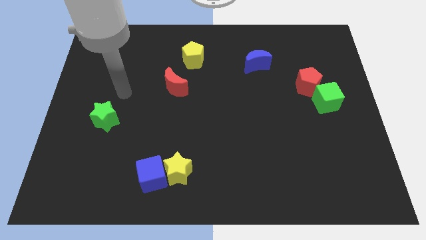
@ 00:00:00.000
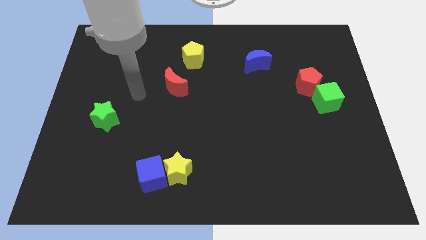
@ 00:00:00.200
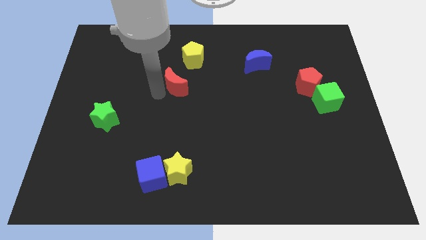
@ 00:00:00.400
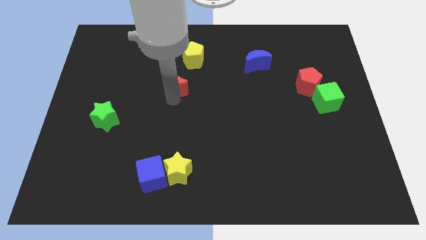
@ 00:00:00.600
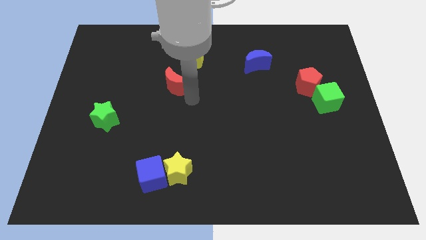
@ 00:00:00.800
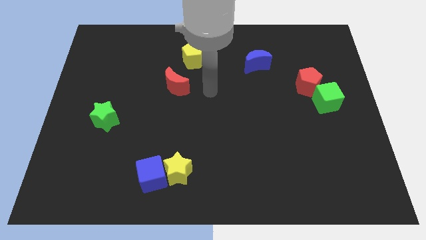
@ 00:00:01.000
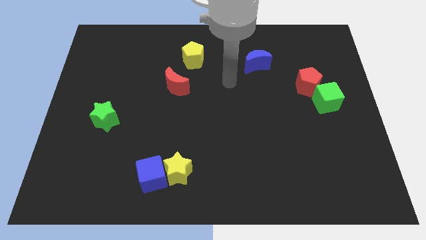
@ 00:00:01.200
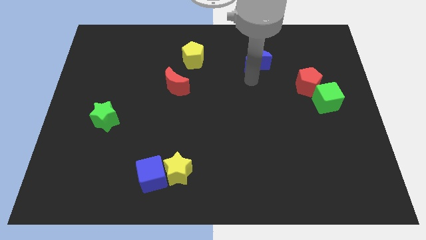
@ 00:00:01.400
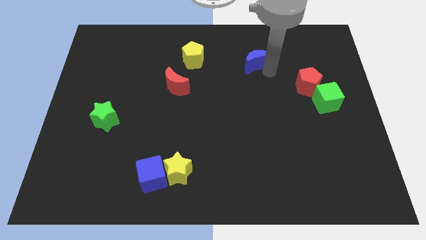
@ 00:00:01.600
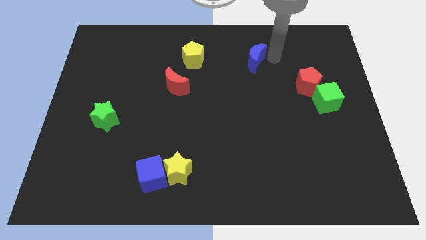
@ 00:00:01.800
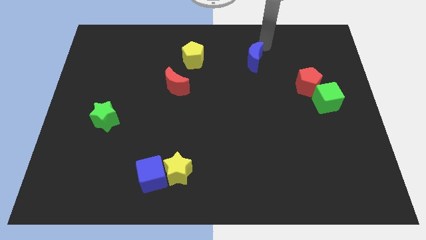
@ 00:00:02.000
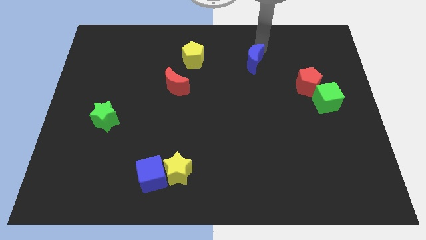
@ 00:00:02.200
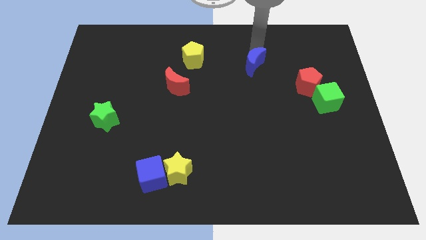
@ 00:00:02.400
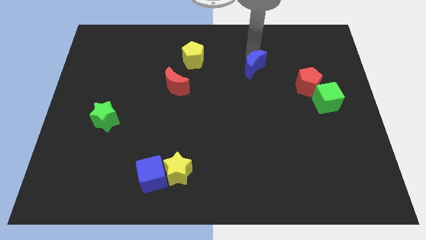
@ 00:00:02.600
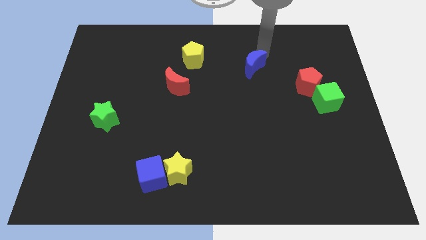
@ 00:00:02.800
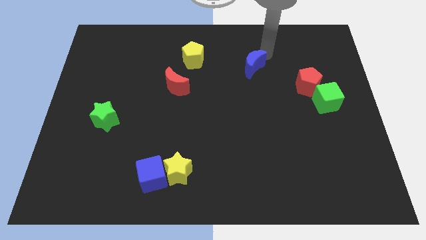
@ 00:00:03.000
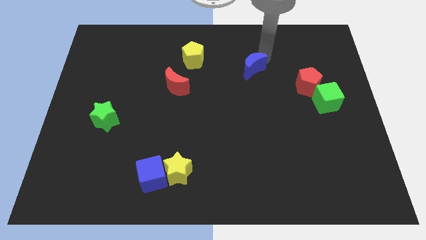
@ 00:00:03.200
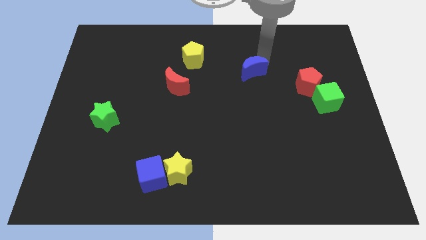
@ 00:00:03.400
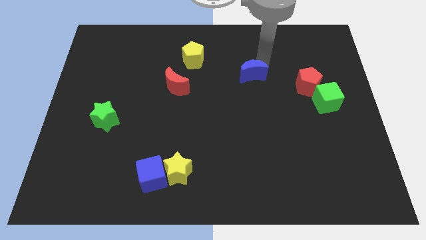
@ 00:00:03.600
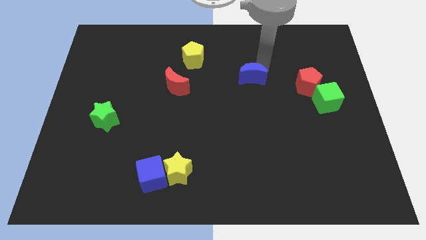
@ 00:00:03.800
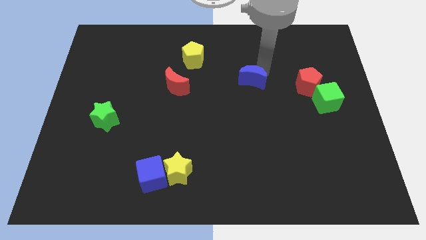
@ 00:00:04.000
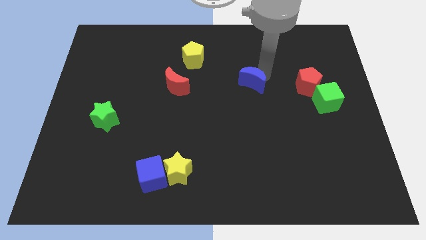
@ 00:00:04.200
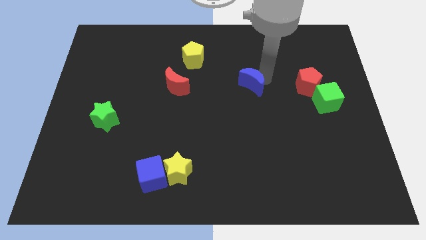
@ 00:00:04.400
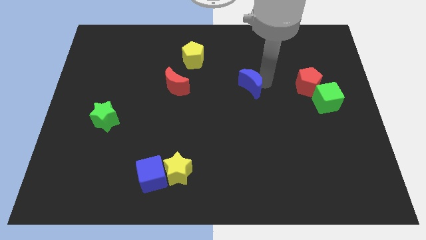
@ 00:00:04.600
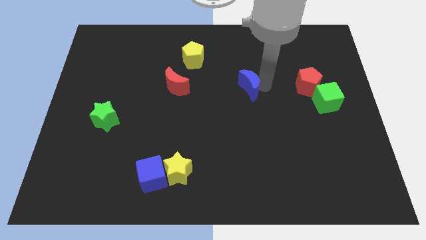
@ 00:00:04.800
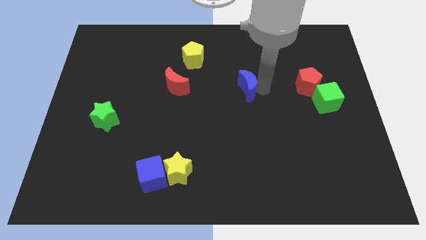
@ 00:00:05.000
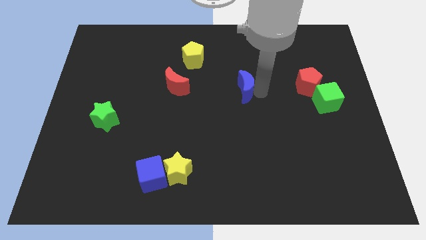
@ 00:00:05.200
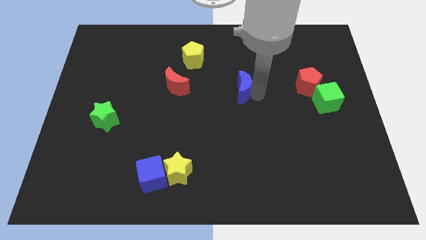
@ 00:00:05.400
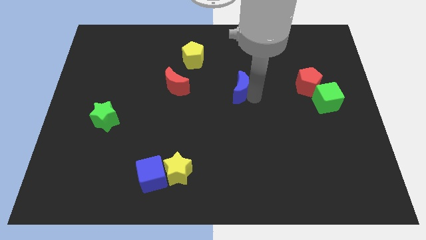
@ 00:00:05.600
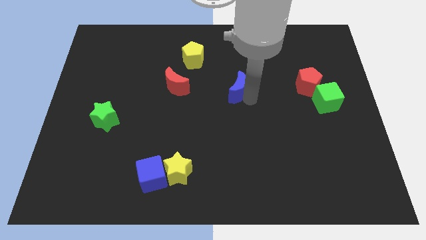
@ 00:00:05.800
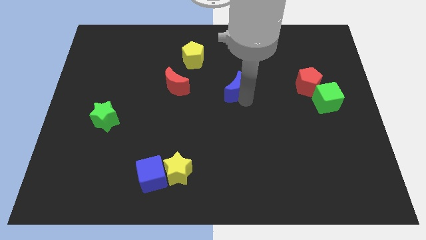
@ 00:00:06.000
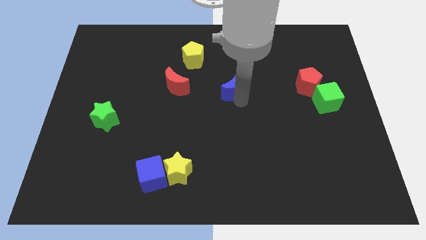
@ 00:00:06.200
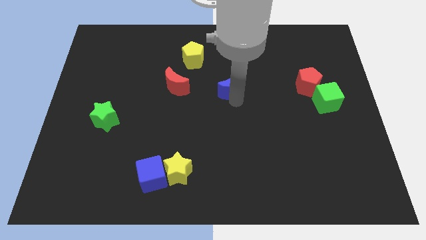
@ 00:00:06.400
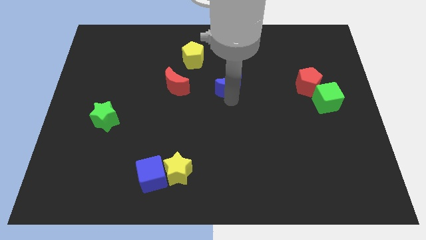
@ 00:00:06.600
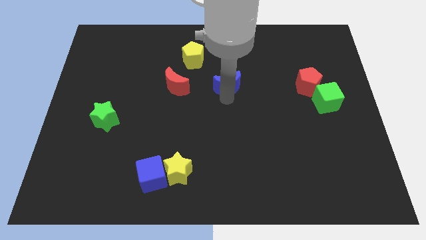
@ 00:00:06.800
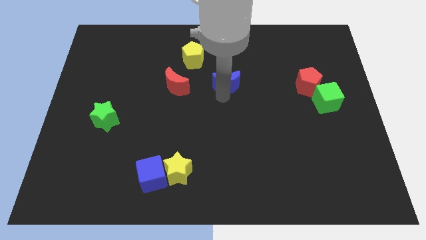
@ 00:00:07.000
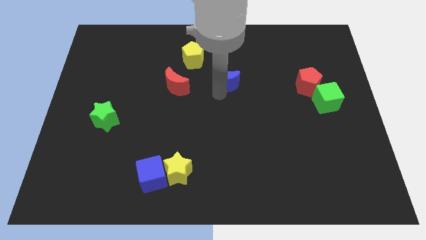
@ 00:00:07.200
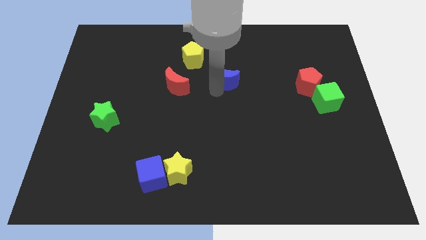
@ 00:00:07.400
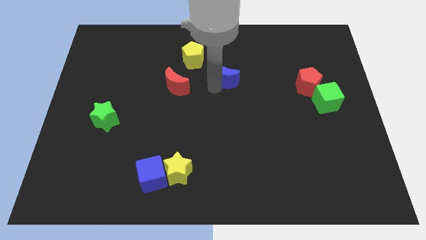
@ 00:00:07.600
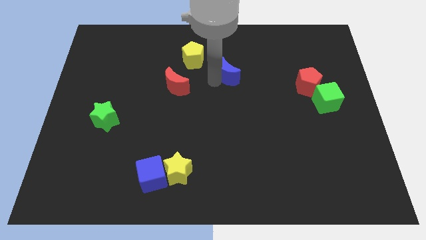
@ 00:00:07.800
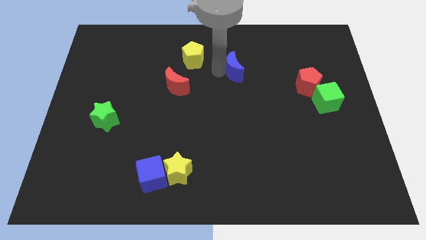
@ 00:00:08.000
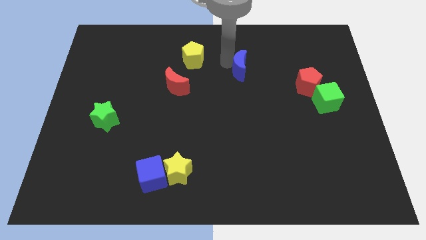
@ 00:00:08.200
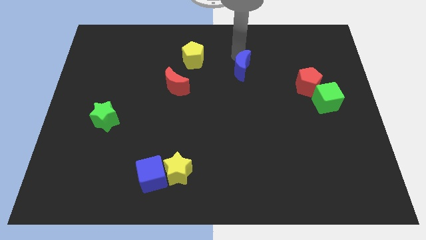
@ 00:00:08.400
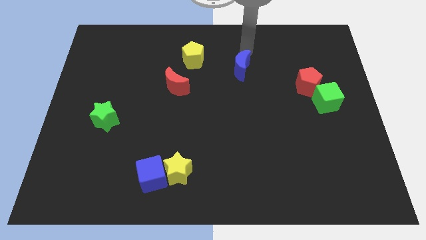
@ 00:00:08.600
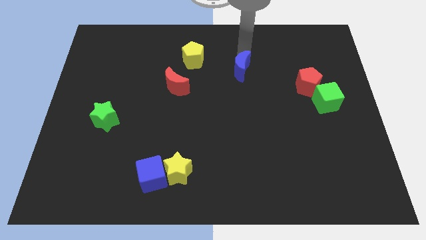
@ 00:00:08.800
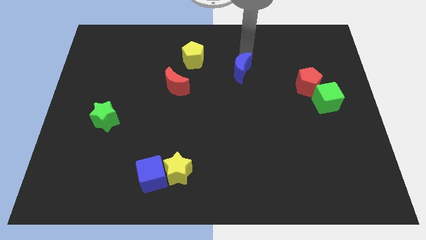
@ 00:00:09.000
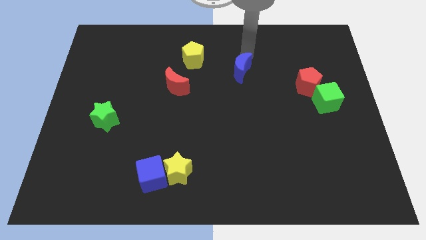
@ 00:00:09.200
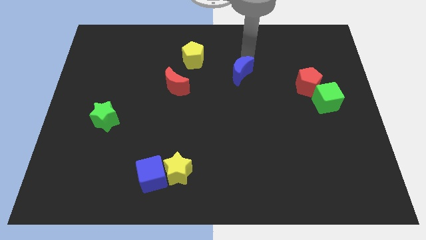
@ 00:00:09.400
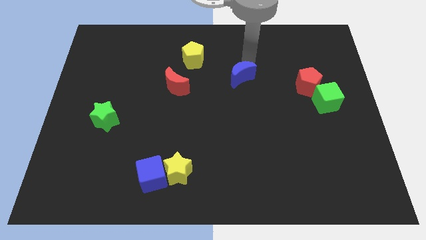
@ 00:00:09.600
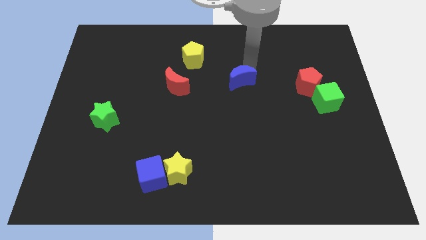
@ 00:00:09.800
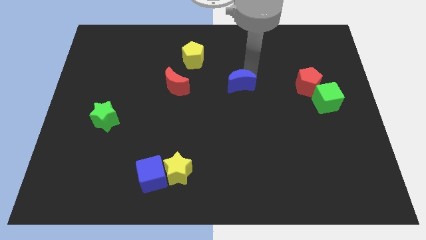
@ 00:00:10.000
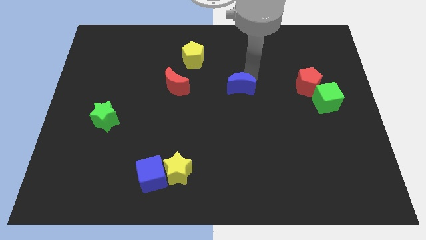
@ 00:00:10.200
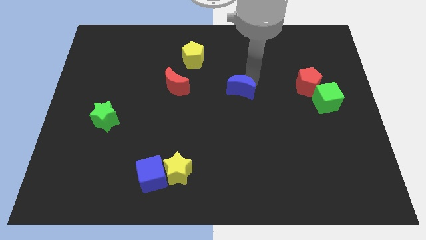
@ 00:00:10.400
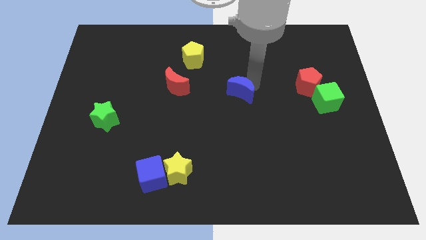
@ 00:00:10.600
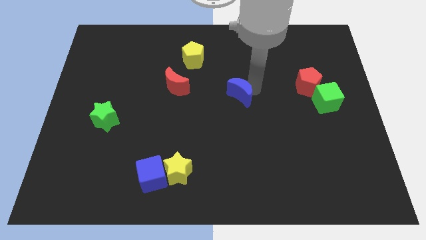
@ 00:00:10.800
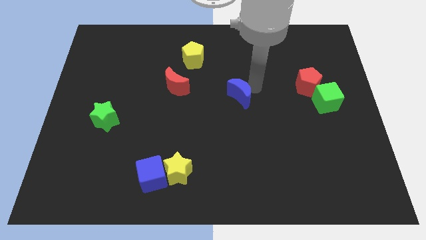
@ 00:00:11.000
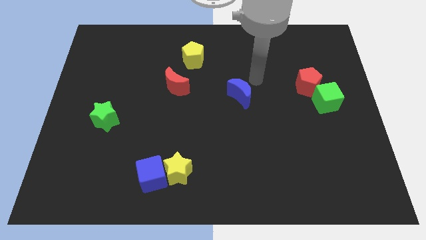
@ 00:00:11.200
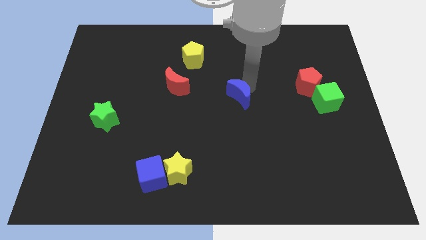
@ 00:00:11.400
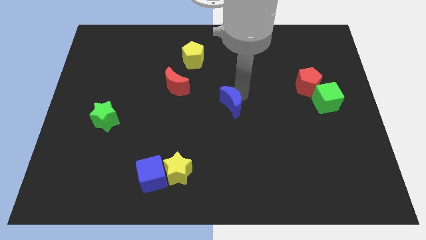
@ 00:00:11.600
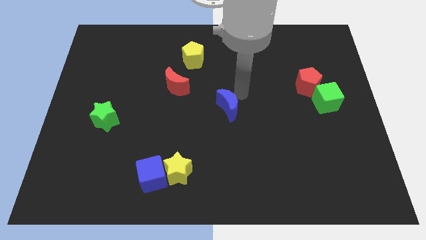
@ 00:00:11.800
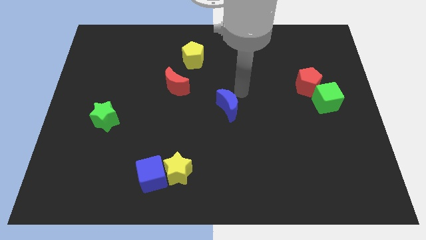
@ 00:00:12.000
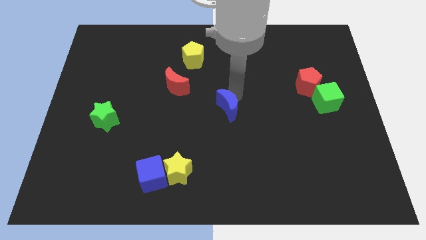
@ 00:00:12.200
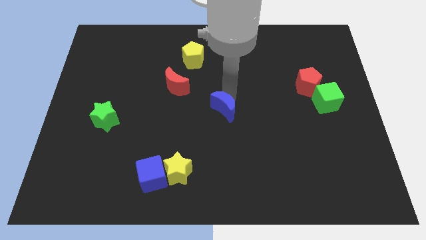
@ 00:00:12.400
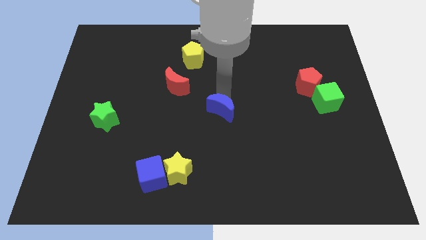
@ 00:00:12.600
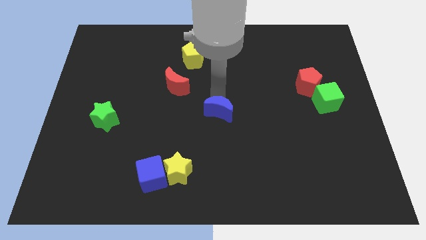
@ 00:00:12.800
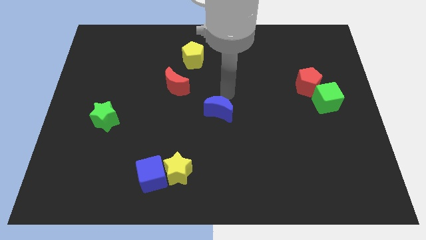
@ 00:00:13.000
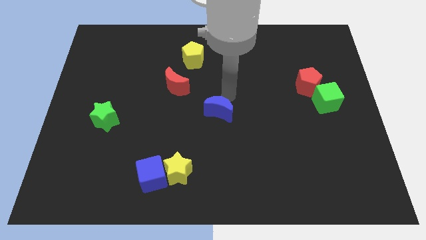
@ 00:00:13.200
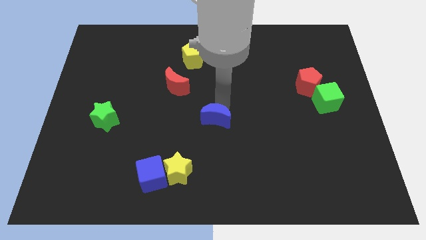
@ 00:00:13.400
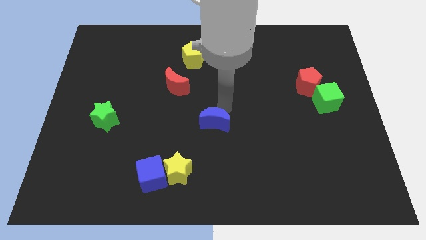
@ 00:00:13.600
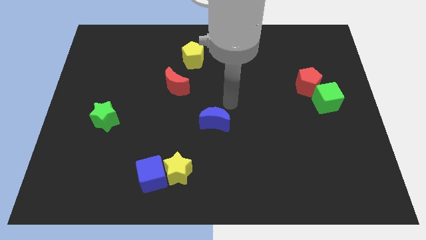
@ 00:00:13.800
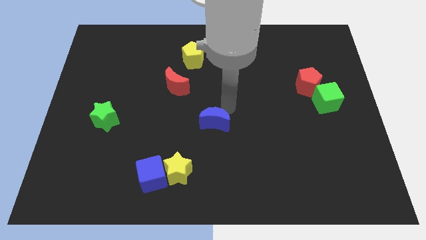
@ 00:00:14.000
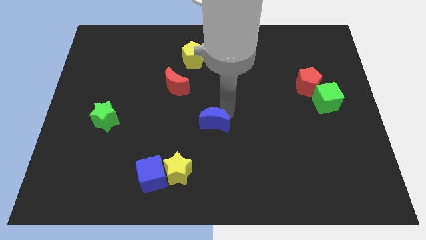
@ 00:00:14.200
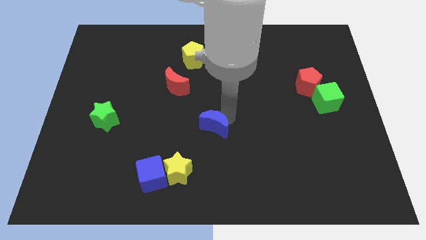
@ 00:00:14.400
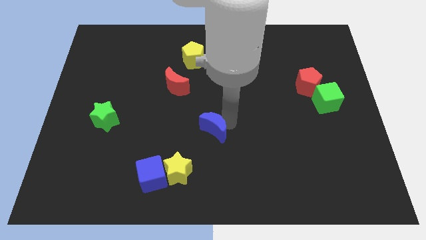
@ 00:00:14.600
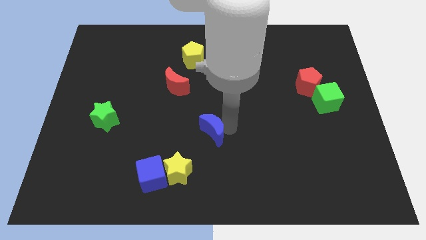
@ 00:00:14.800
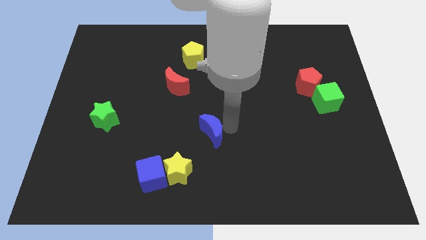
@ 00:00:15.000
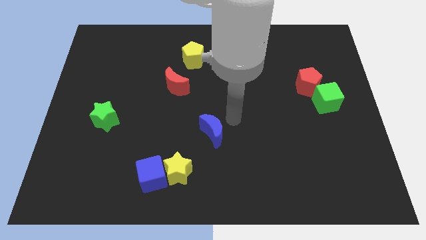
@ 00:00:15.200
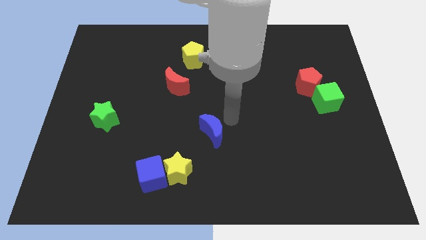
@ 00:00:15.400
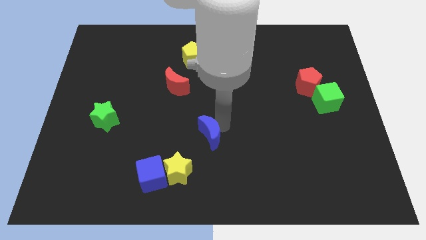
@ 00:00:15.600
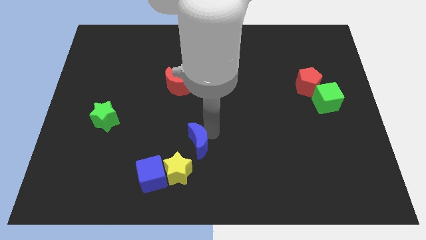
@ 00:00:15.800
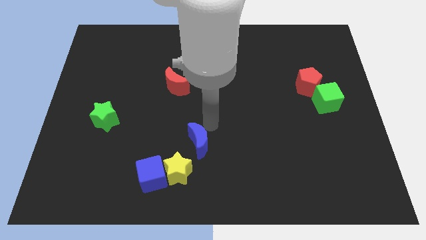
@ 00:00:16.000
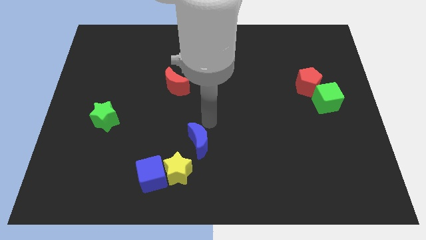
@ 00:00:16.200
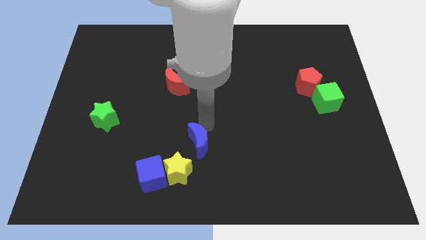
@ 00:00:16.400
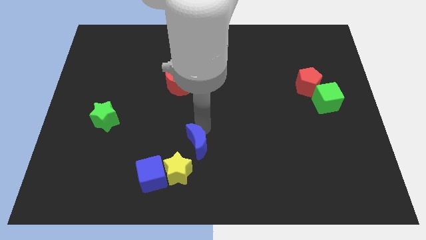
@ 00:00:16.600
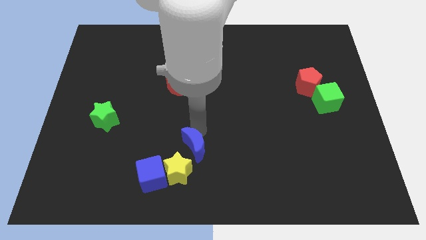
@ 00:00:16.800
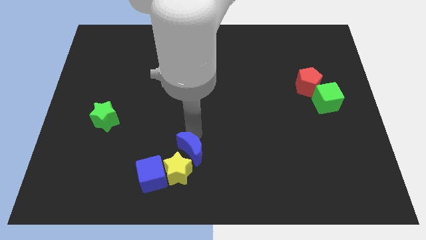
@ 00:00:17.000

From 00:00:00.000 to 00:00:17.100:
put the blue moon close to the yellow star
